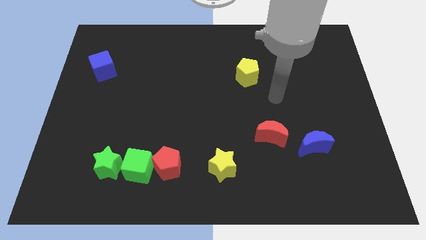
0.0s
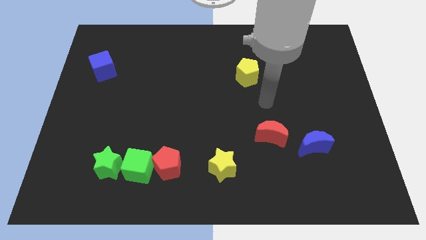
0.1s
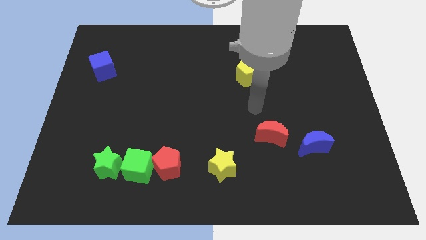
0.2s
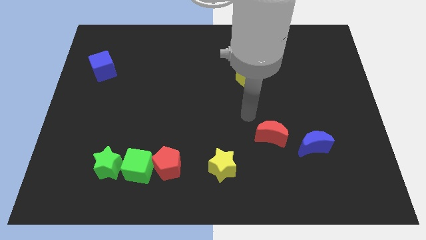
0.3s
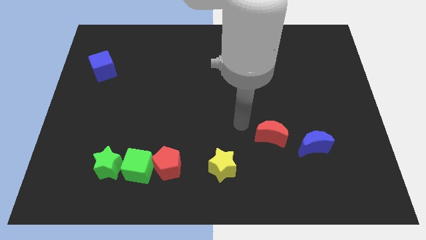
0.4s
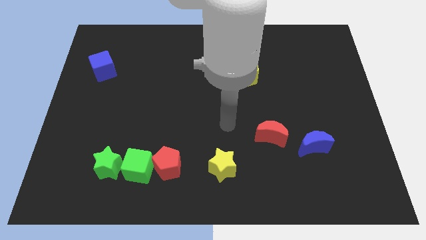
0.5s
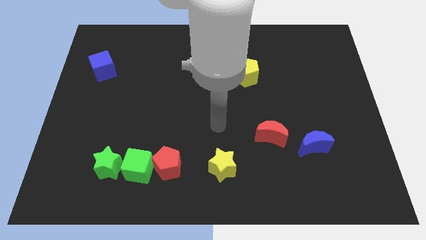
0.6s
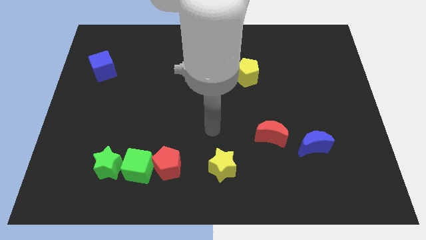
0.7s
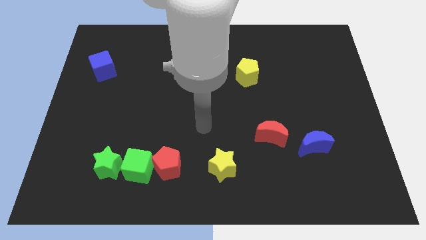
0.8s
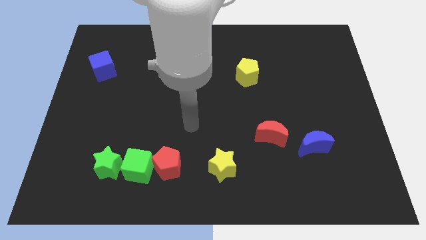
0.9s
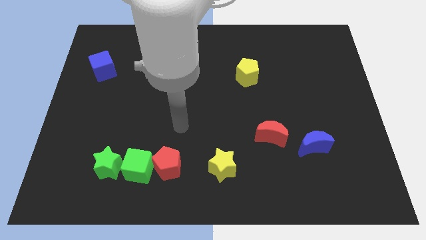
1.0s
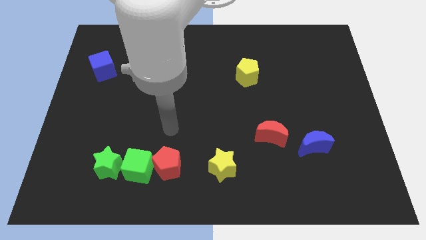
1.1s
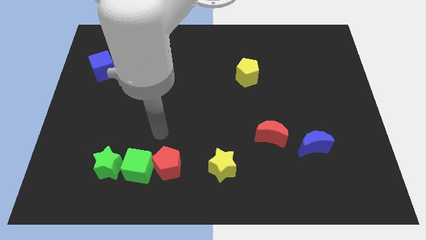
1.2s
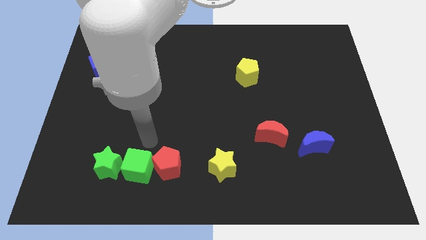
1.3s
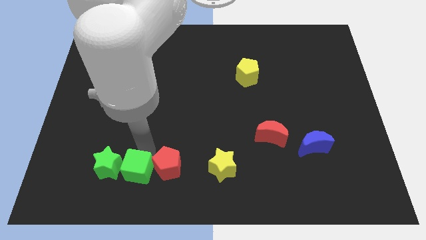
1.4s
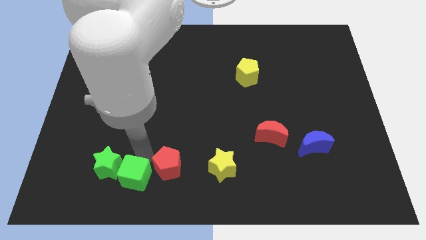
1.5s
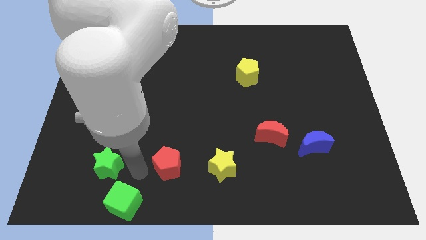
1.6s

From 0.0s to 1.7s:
pull the red pentagon apart from the green cube

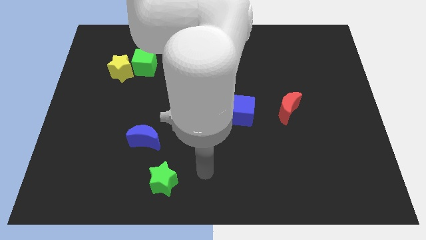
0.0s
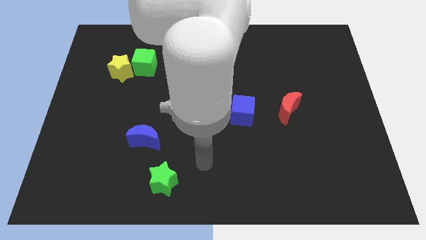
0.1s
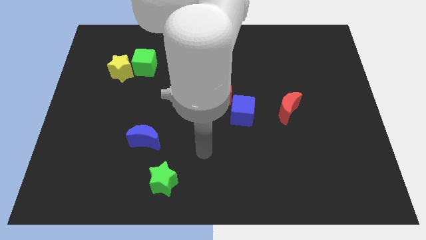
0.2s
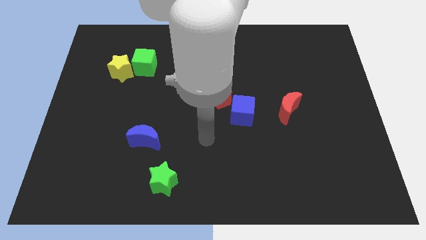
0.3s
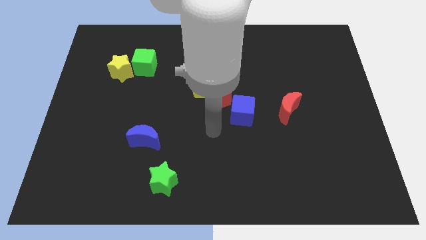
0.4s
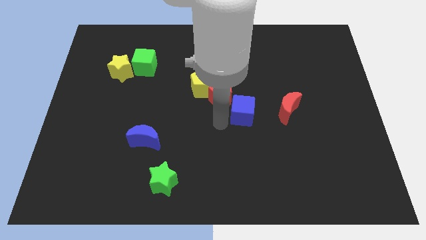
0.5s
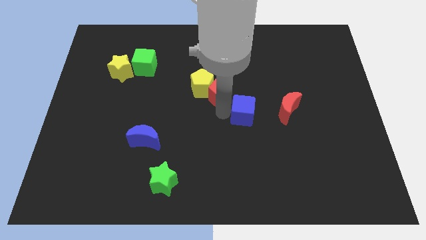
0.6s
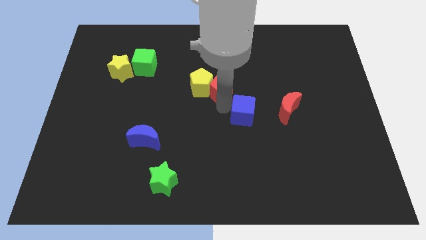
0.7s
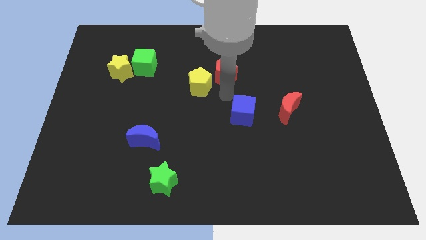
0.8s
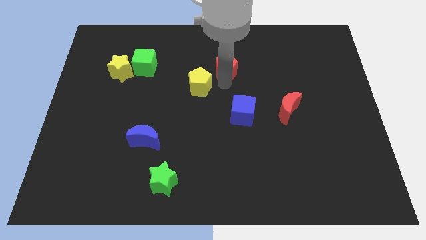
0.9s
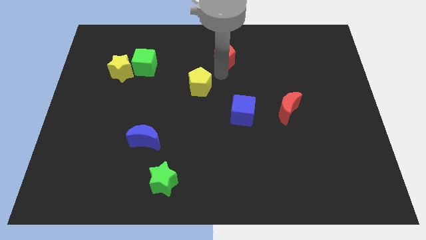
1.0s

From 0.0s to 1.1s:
separate the yellow pentagon from the red pentagon

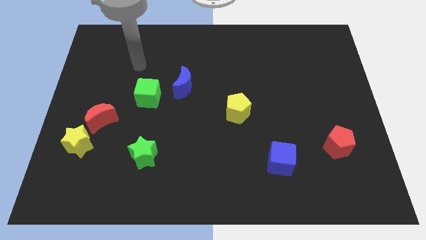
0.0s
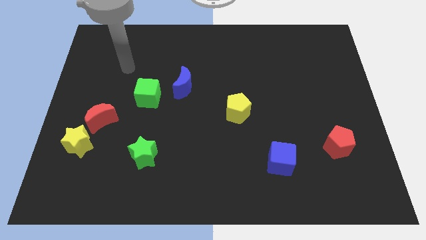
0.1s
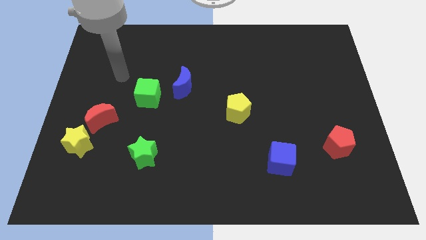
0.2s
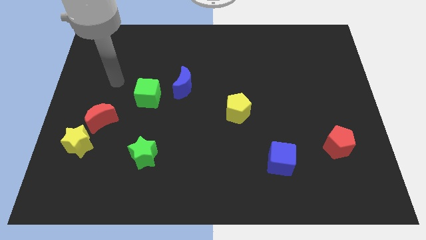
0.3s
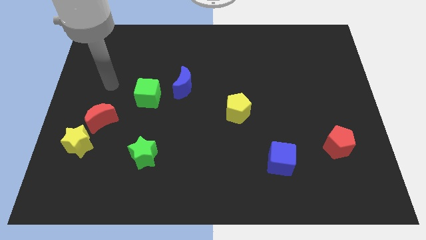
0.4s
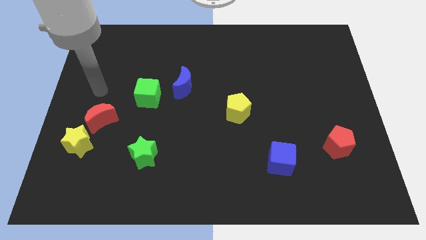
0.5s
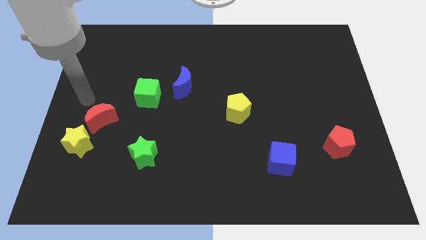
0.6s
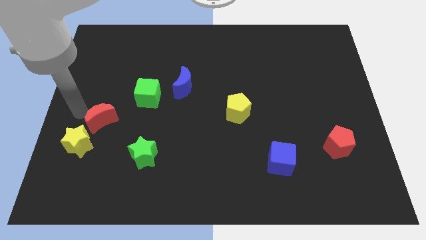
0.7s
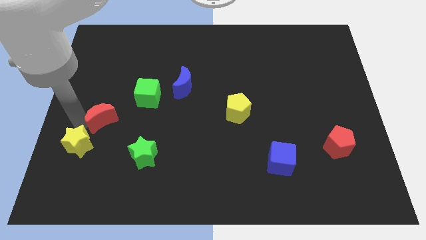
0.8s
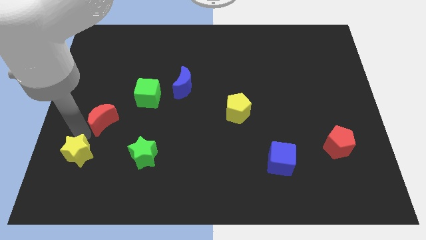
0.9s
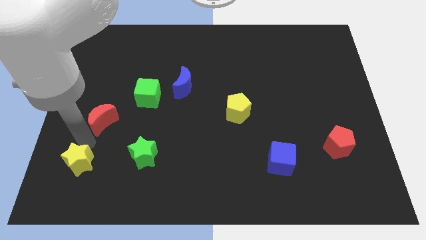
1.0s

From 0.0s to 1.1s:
move the red moon away from the yellow star

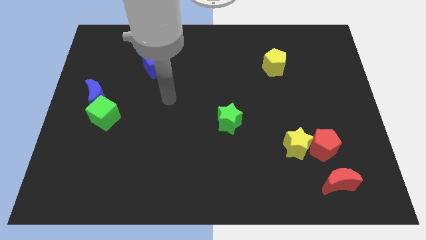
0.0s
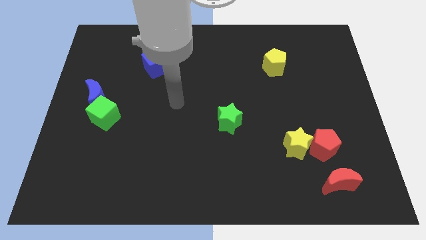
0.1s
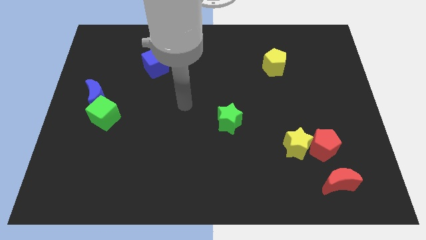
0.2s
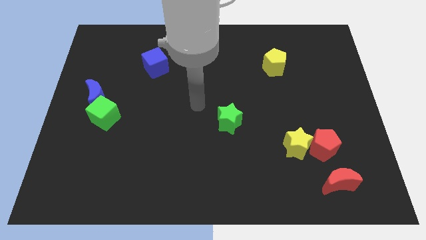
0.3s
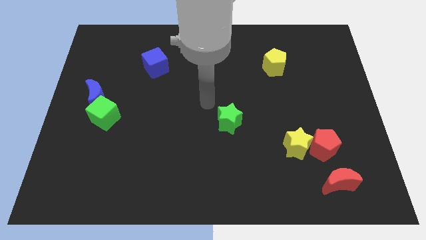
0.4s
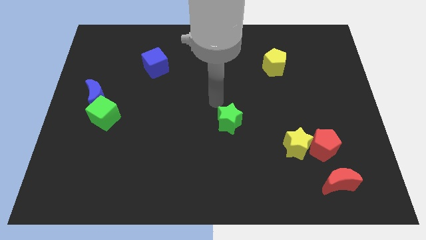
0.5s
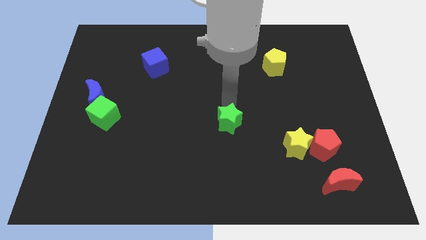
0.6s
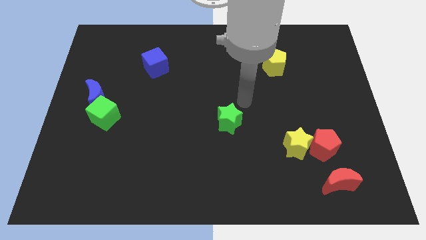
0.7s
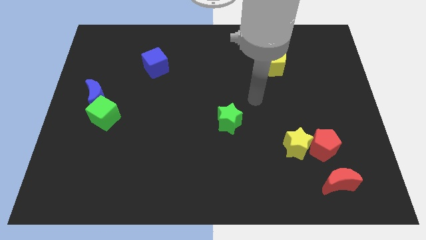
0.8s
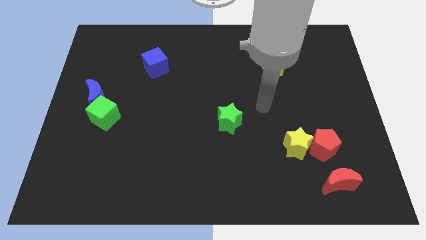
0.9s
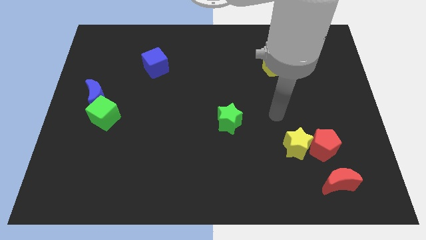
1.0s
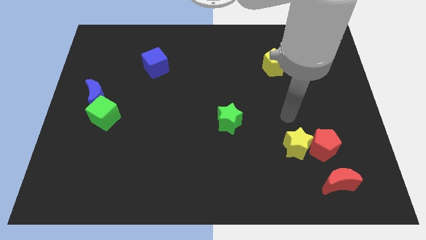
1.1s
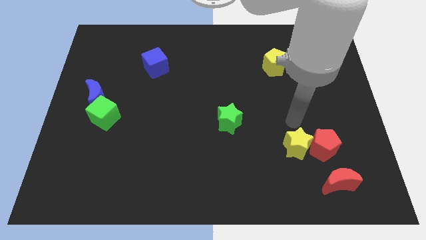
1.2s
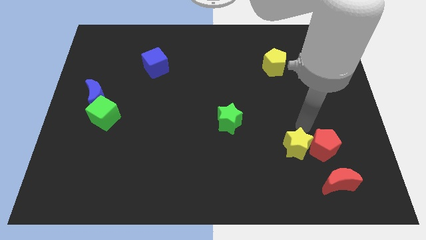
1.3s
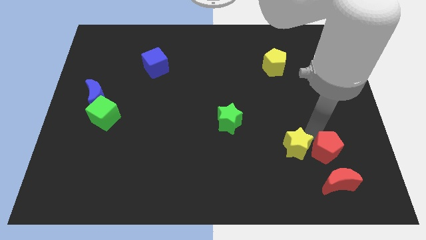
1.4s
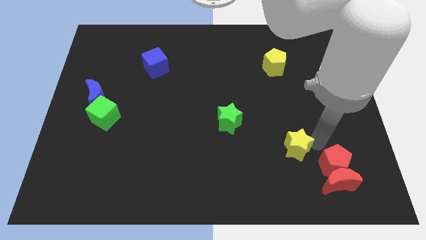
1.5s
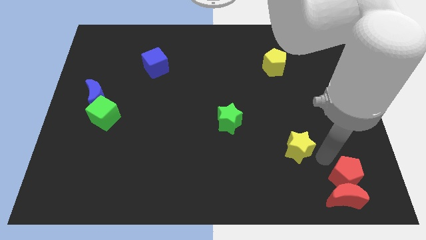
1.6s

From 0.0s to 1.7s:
move the yellow star away from the red pentagon

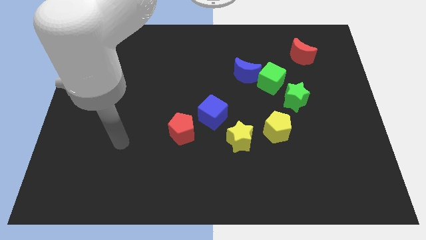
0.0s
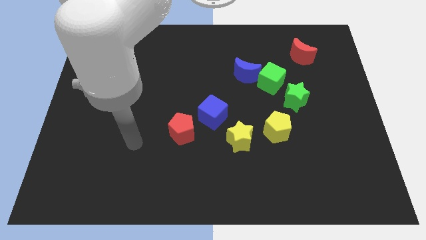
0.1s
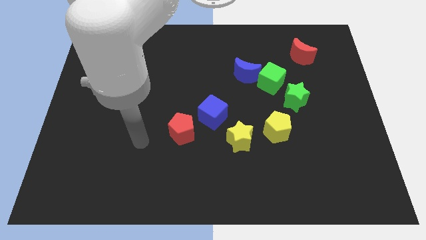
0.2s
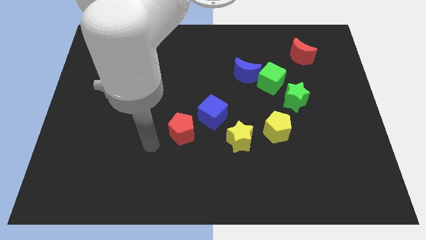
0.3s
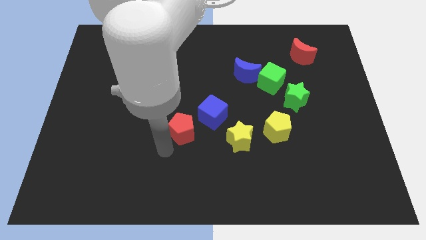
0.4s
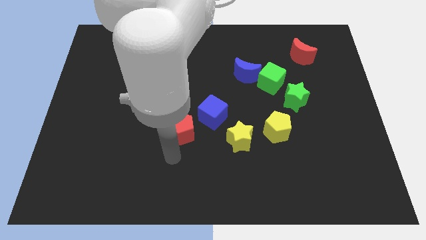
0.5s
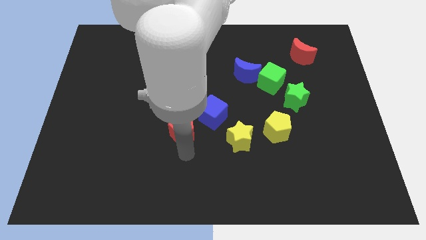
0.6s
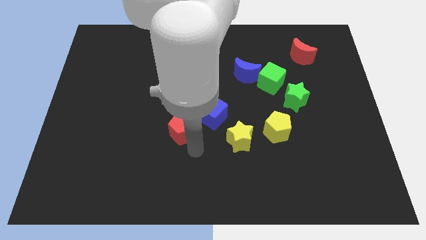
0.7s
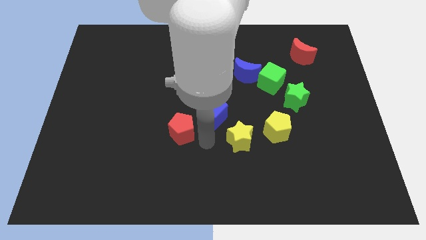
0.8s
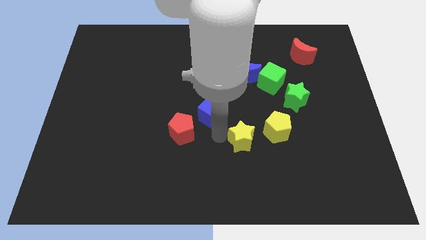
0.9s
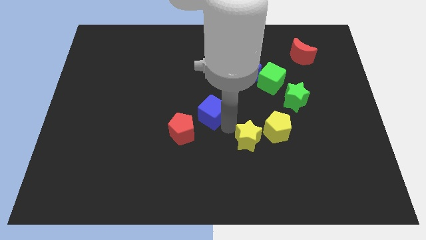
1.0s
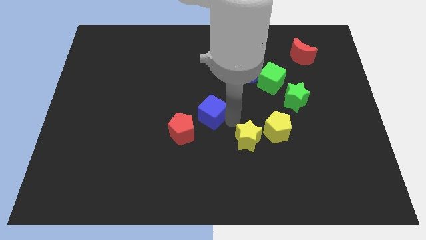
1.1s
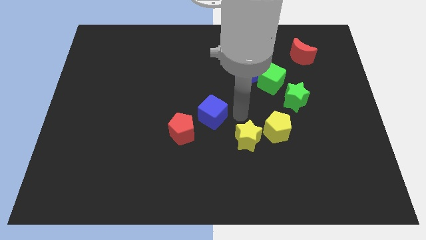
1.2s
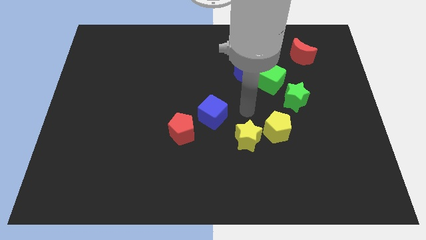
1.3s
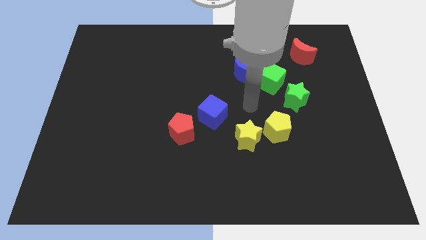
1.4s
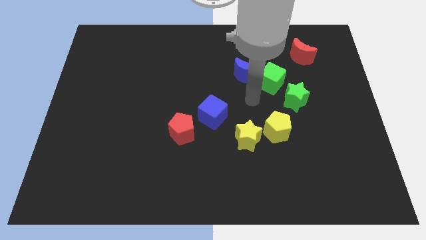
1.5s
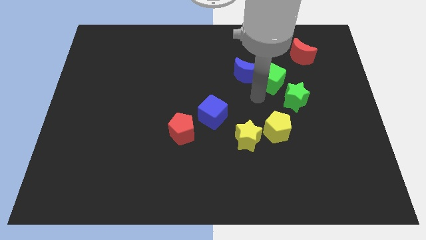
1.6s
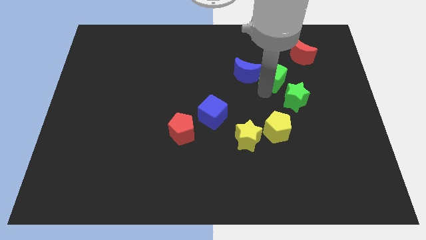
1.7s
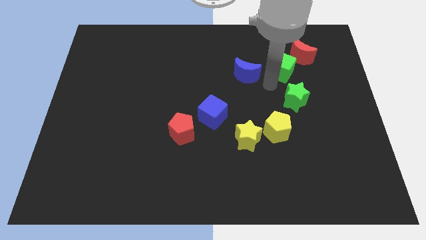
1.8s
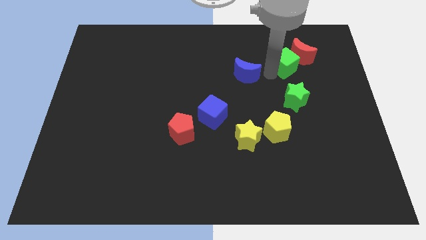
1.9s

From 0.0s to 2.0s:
move the blue moon away from the green cube

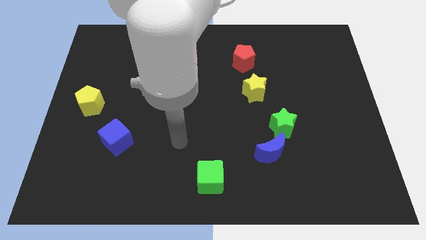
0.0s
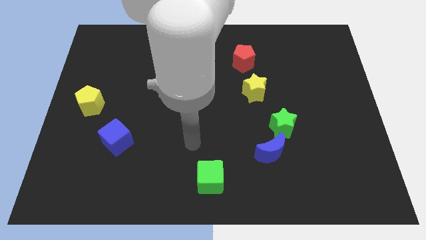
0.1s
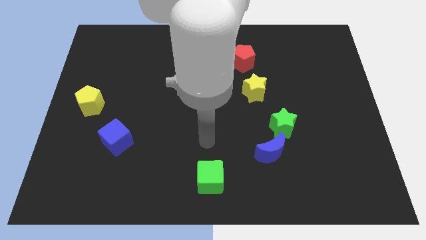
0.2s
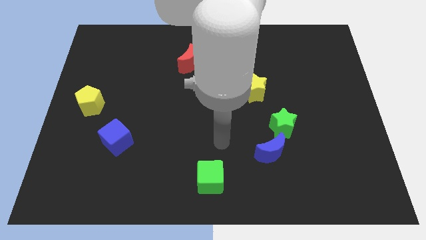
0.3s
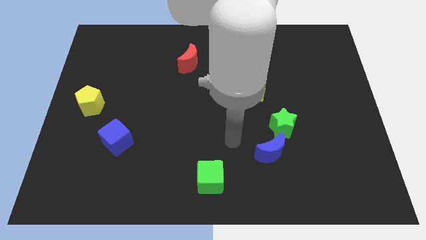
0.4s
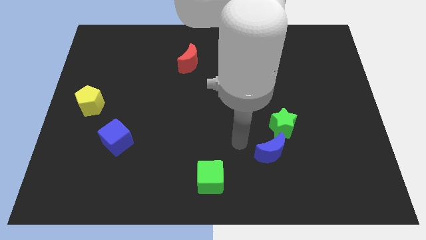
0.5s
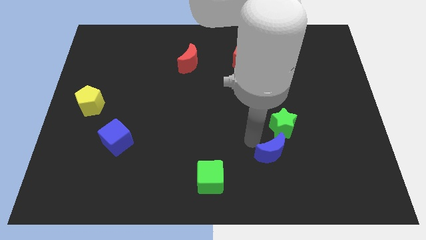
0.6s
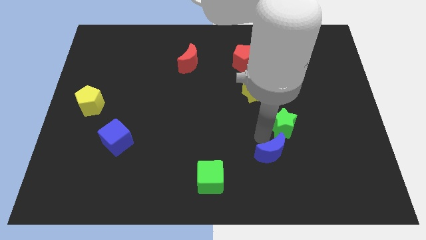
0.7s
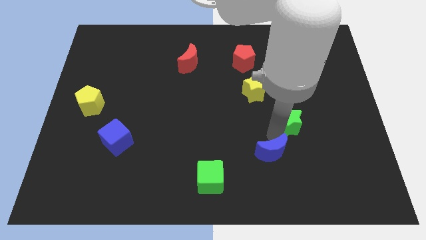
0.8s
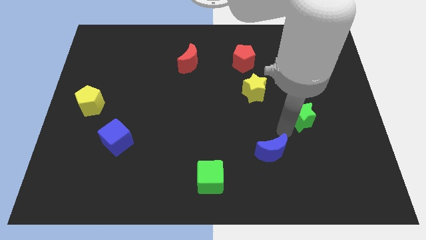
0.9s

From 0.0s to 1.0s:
move the blue moon away from the green star

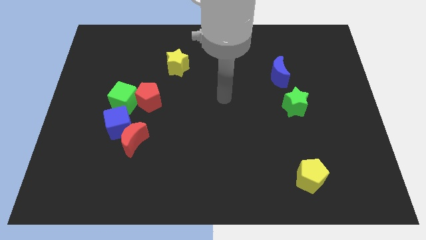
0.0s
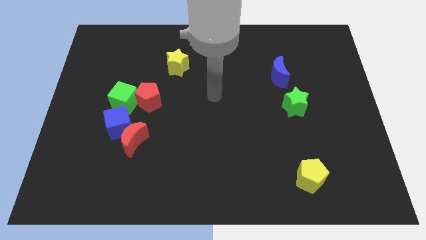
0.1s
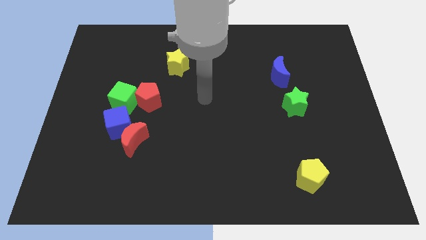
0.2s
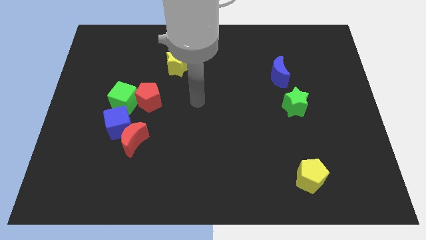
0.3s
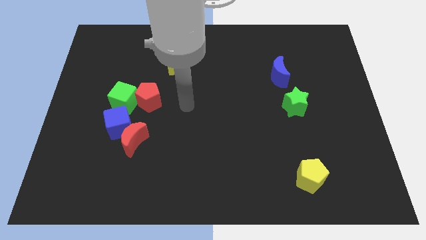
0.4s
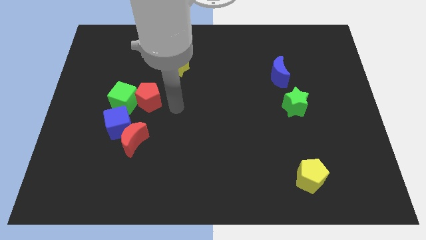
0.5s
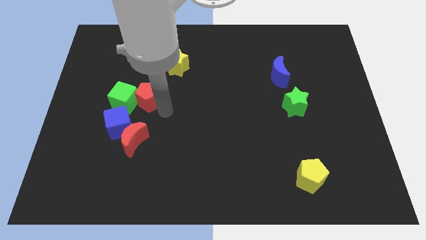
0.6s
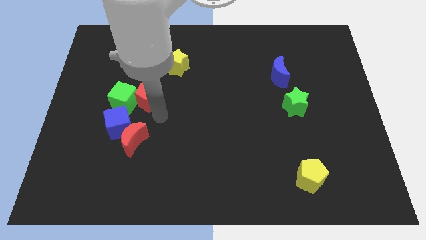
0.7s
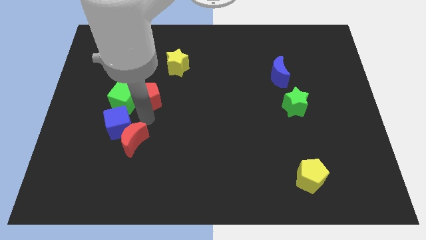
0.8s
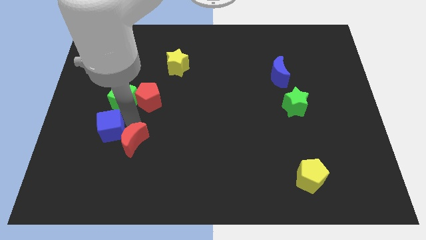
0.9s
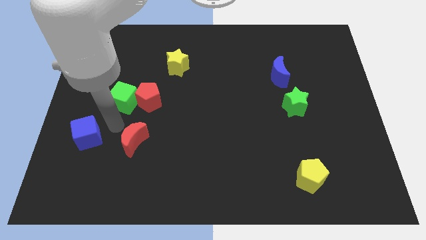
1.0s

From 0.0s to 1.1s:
separate the red moon from the blue cube
